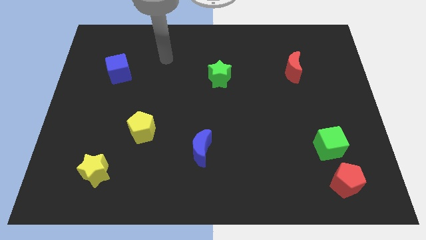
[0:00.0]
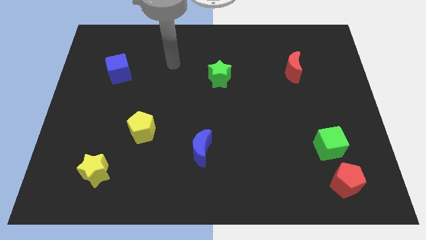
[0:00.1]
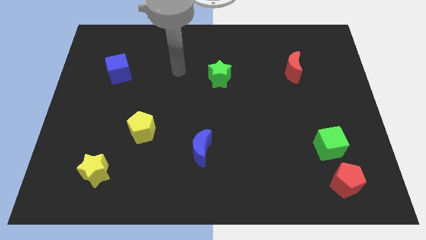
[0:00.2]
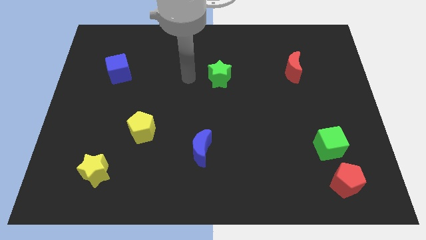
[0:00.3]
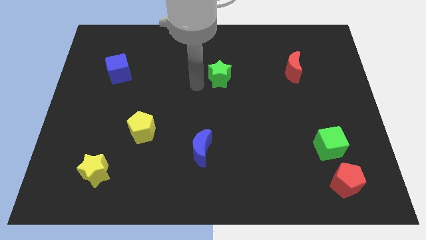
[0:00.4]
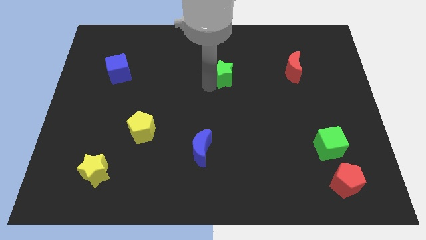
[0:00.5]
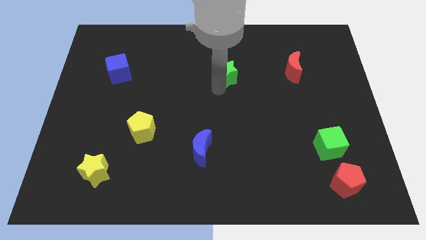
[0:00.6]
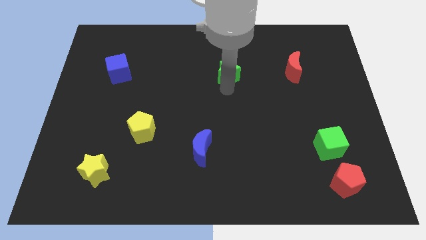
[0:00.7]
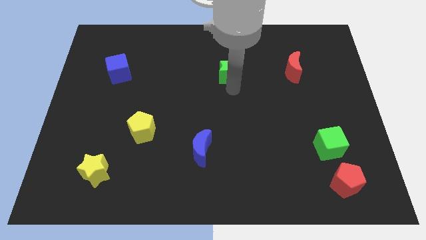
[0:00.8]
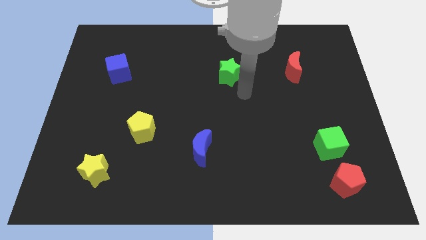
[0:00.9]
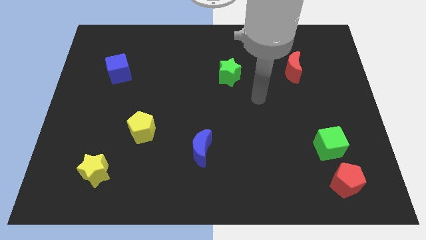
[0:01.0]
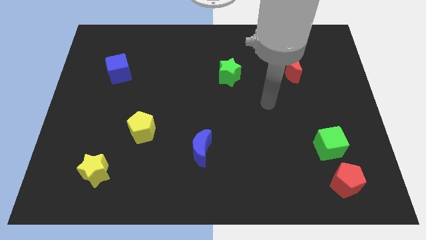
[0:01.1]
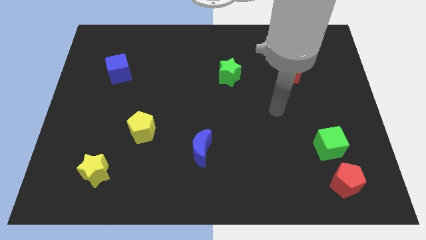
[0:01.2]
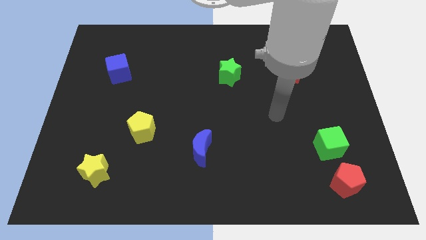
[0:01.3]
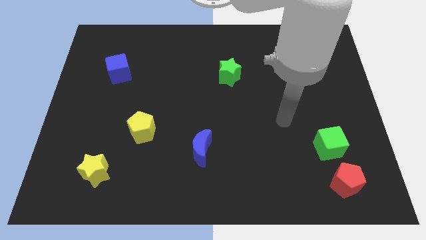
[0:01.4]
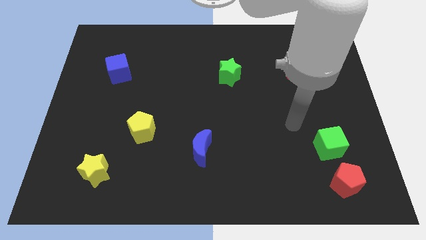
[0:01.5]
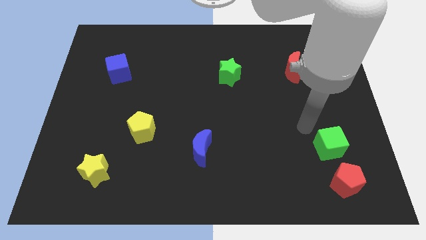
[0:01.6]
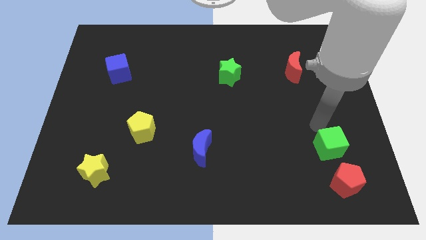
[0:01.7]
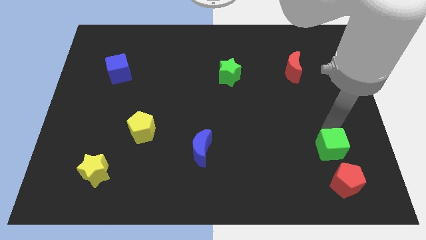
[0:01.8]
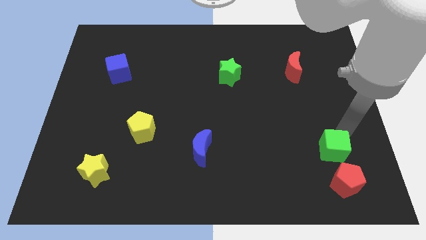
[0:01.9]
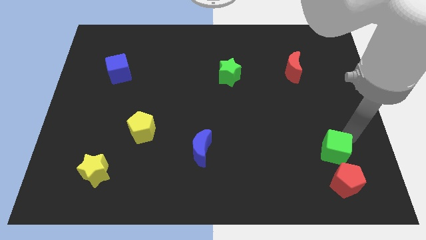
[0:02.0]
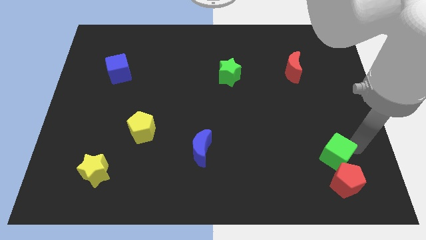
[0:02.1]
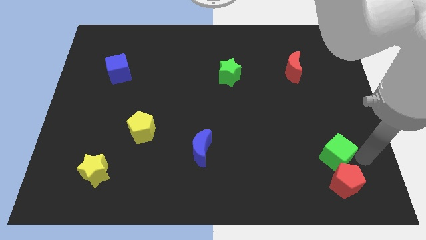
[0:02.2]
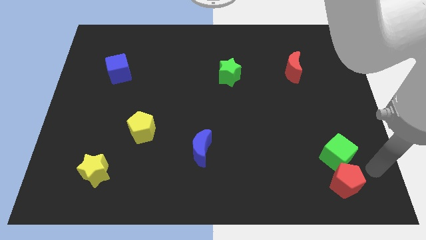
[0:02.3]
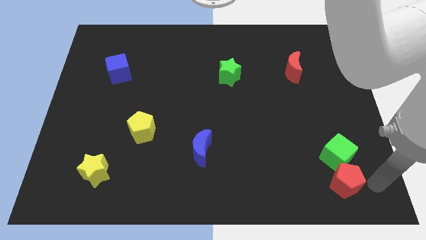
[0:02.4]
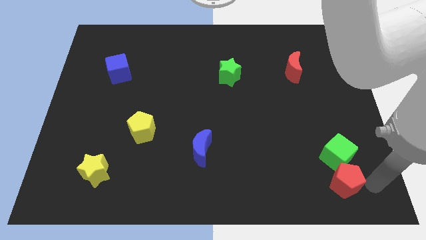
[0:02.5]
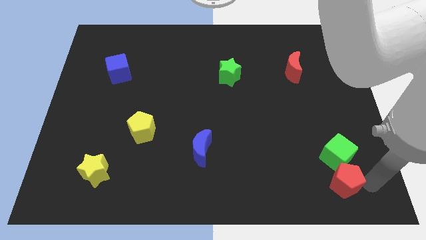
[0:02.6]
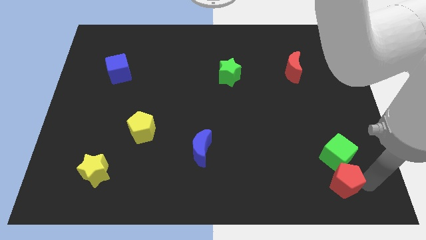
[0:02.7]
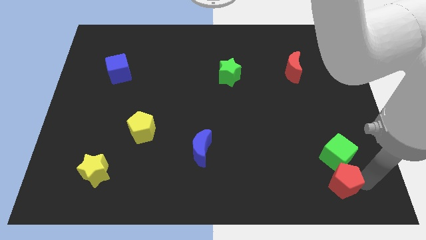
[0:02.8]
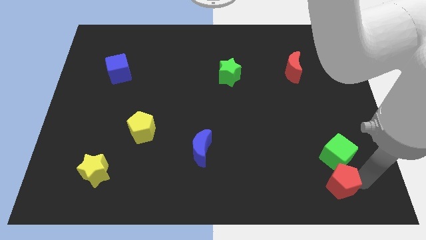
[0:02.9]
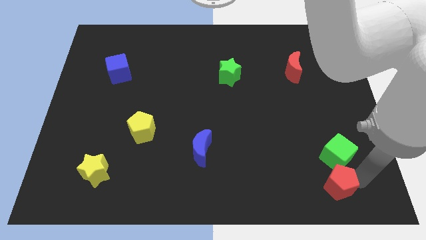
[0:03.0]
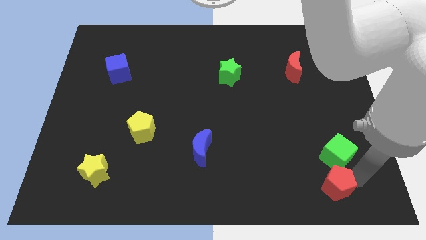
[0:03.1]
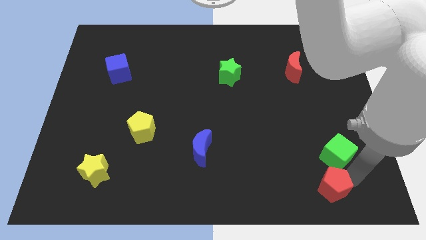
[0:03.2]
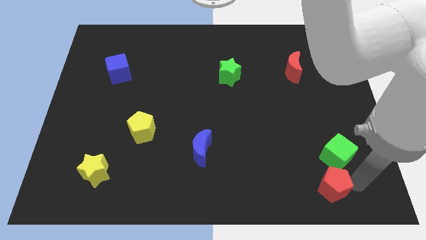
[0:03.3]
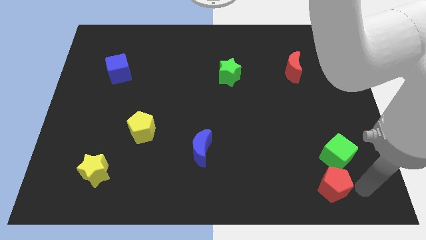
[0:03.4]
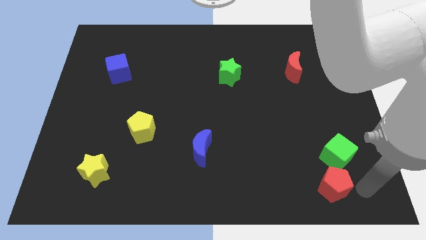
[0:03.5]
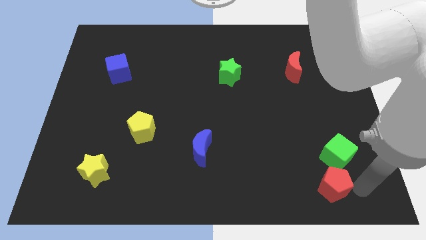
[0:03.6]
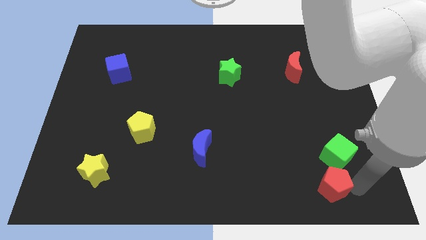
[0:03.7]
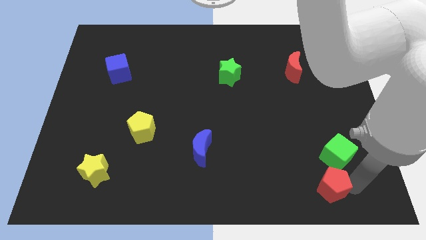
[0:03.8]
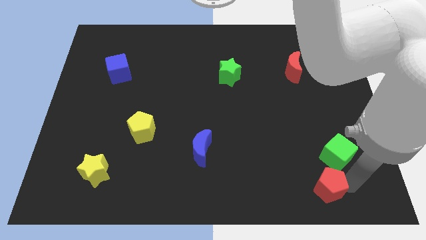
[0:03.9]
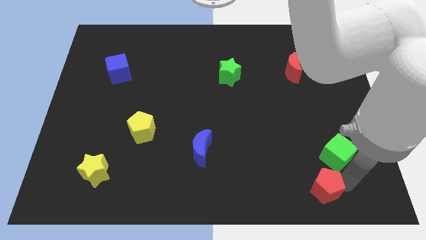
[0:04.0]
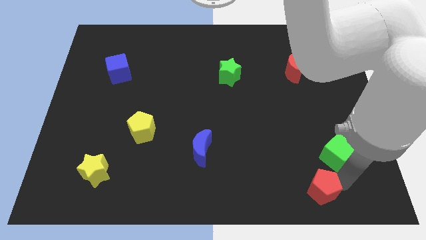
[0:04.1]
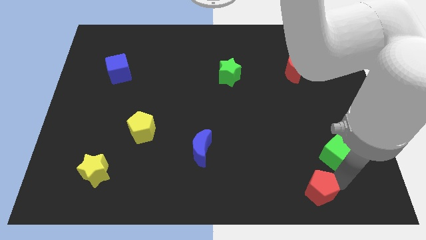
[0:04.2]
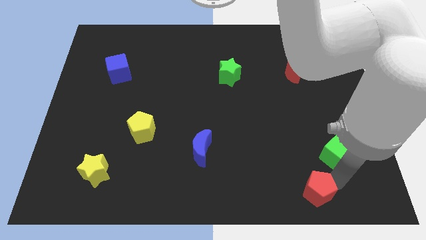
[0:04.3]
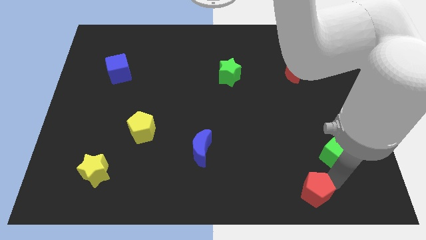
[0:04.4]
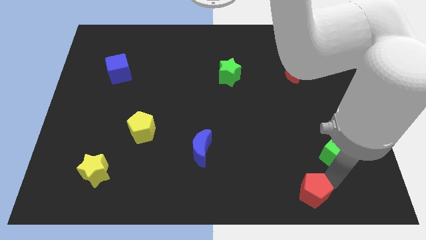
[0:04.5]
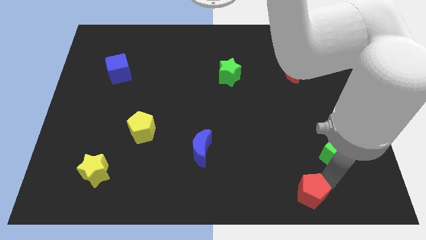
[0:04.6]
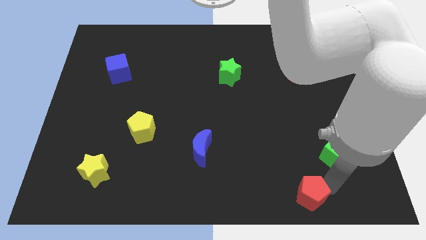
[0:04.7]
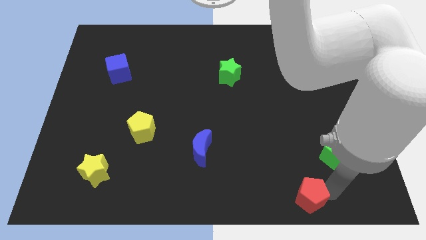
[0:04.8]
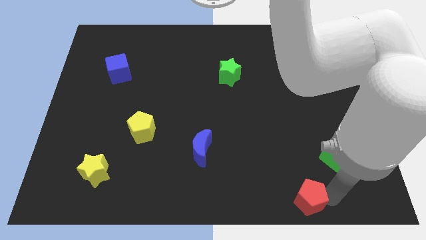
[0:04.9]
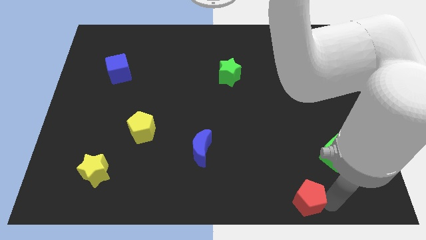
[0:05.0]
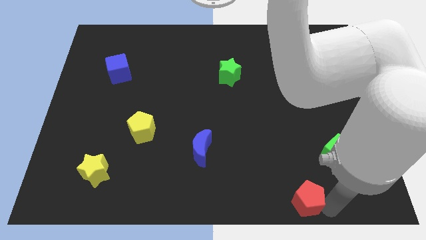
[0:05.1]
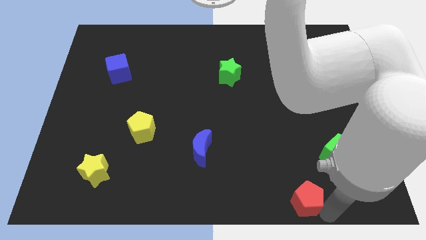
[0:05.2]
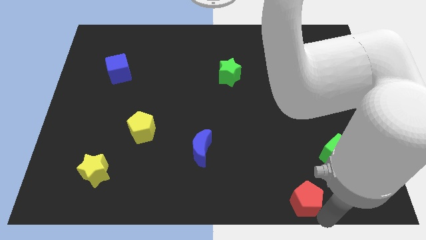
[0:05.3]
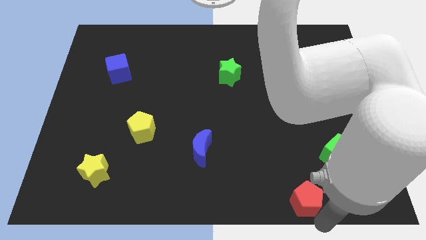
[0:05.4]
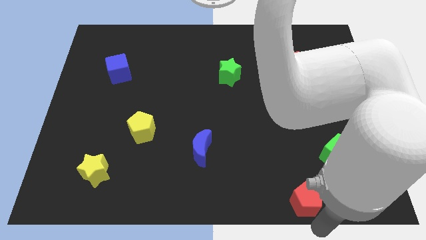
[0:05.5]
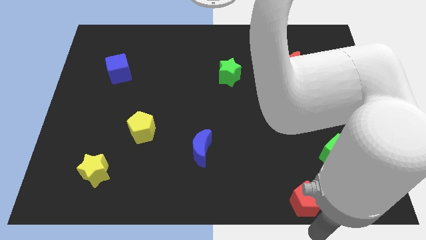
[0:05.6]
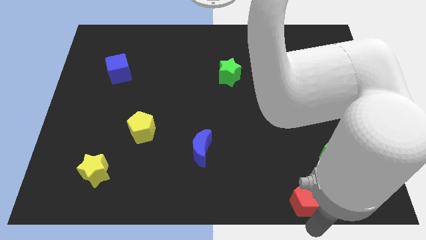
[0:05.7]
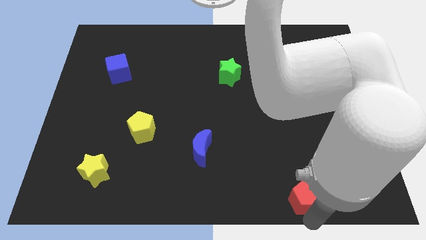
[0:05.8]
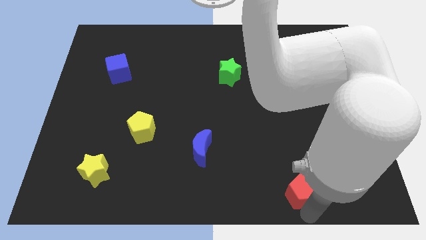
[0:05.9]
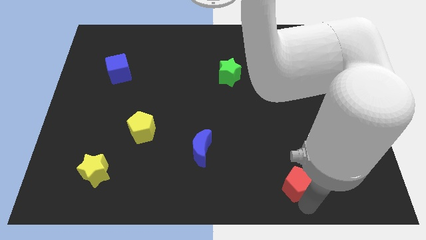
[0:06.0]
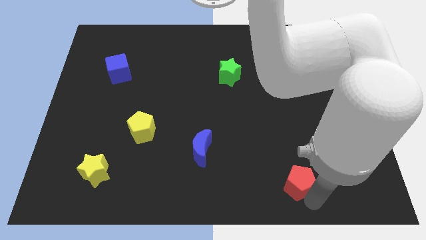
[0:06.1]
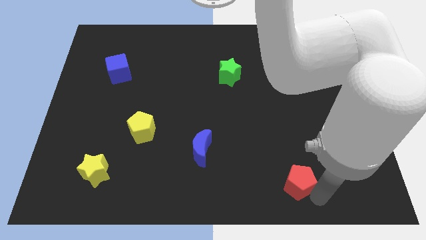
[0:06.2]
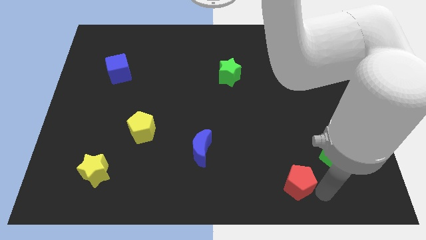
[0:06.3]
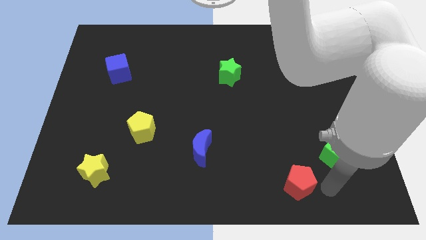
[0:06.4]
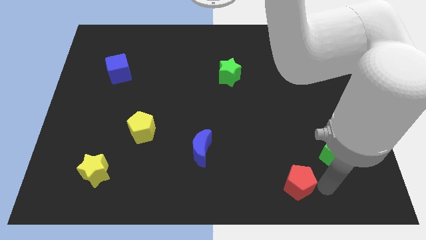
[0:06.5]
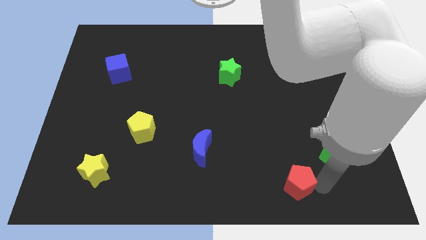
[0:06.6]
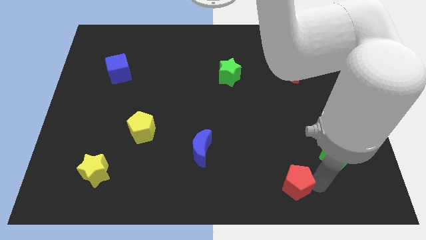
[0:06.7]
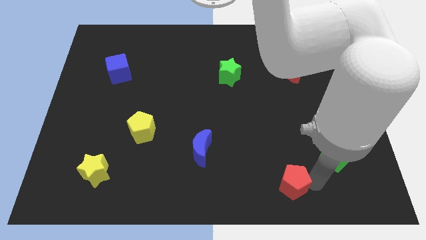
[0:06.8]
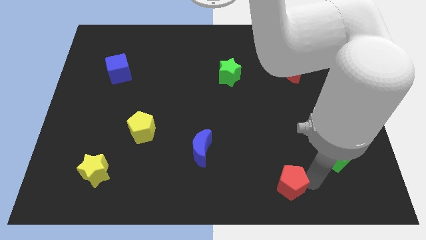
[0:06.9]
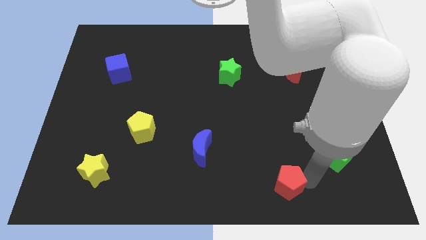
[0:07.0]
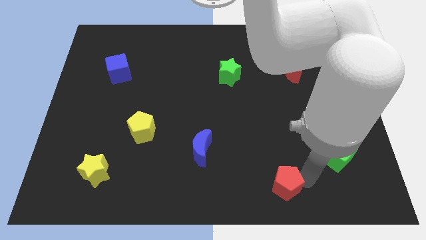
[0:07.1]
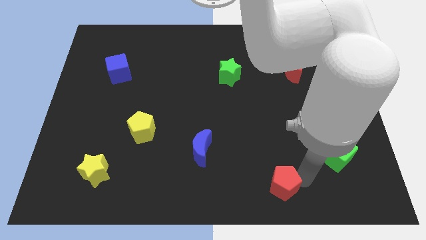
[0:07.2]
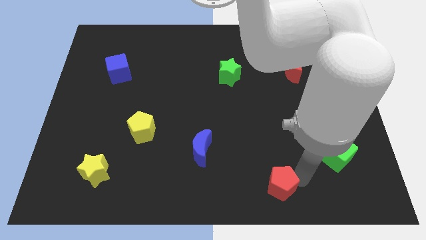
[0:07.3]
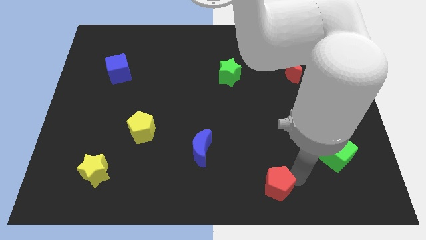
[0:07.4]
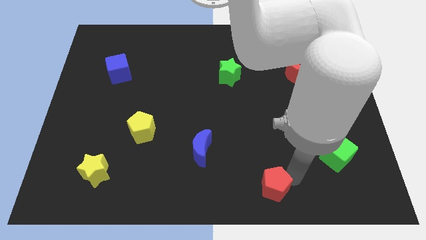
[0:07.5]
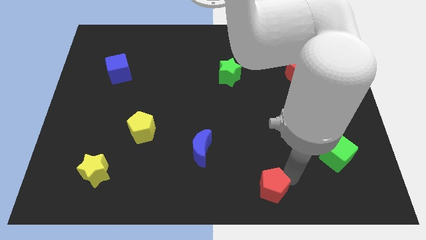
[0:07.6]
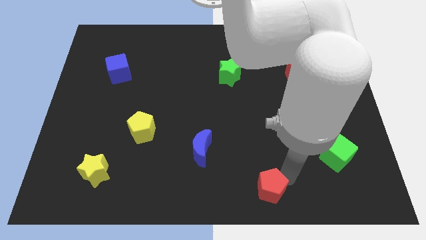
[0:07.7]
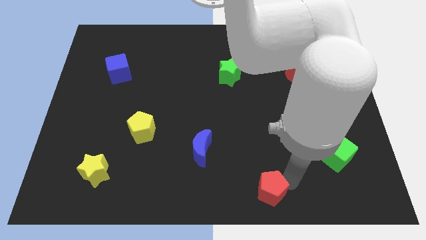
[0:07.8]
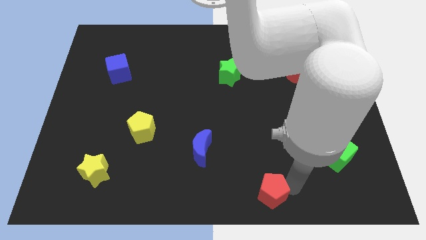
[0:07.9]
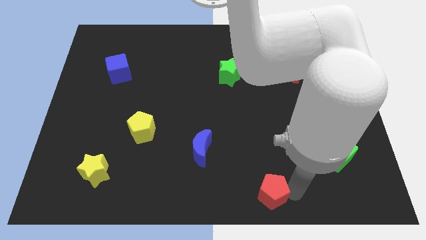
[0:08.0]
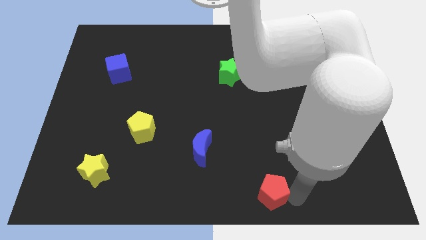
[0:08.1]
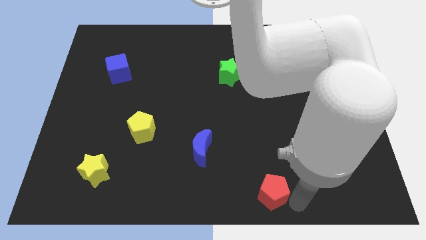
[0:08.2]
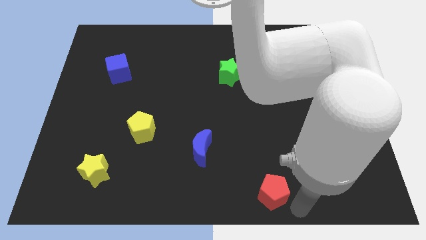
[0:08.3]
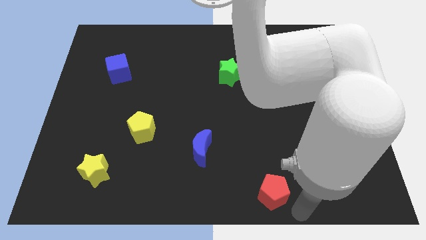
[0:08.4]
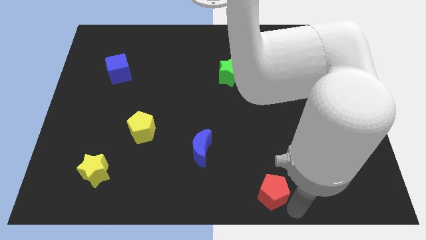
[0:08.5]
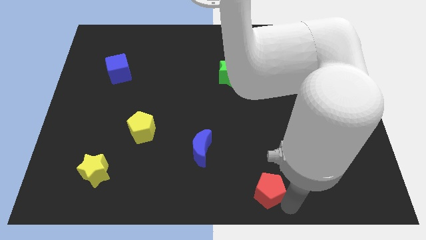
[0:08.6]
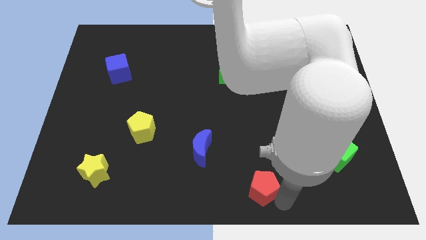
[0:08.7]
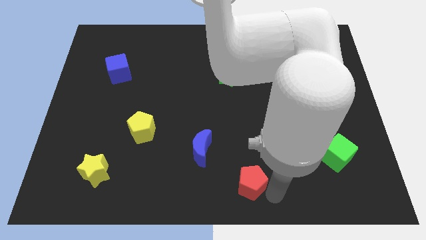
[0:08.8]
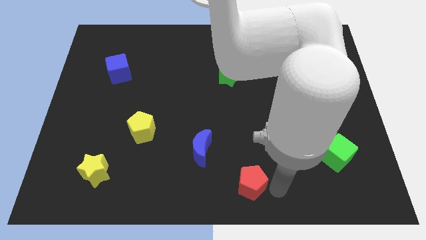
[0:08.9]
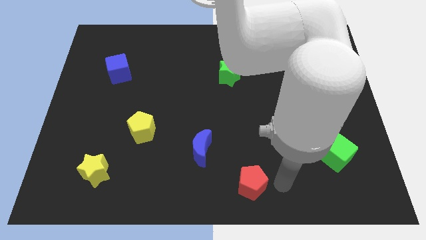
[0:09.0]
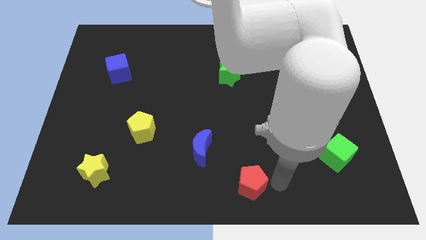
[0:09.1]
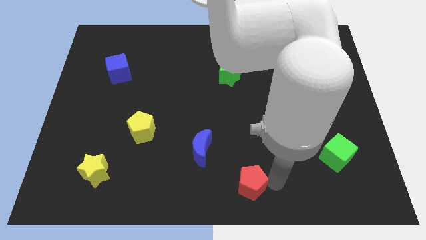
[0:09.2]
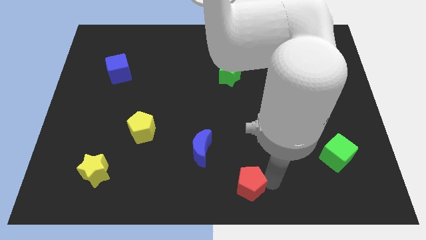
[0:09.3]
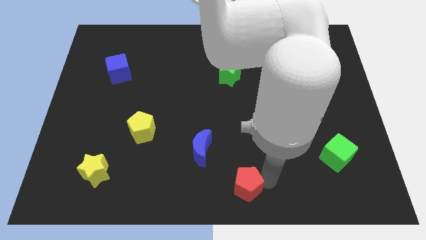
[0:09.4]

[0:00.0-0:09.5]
push the red pentagon to the left
